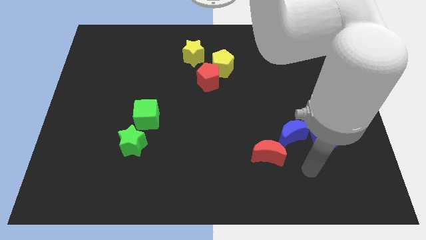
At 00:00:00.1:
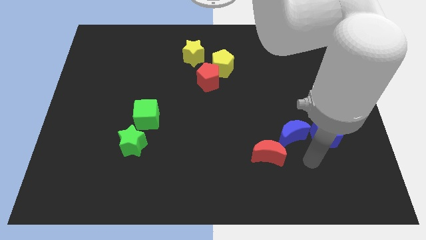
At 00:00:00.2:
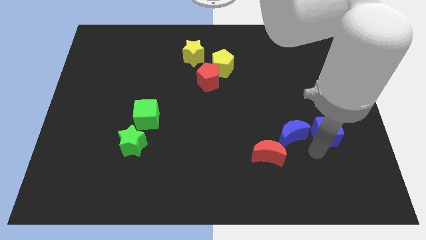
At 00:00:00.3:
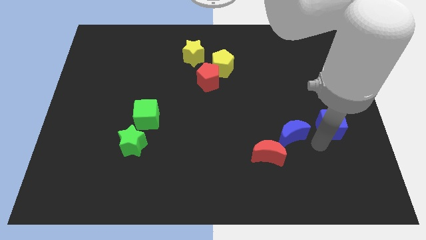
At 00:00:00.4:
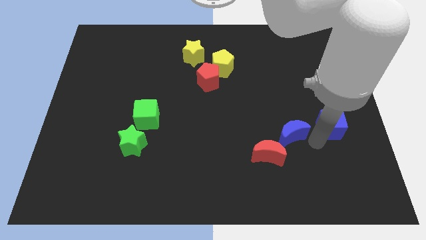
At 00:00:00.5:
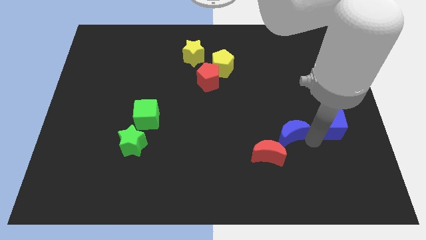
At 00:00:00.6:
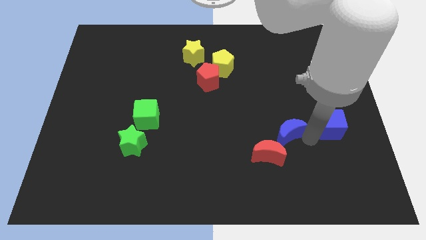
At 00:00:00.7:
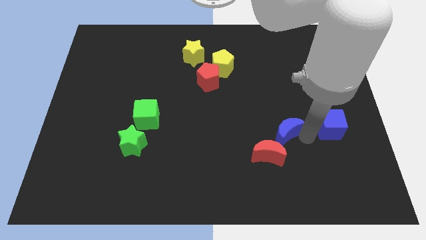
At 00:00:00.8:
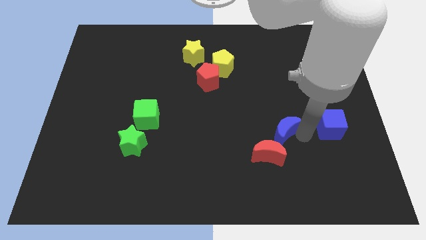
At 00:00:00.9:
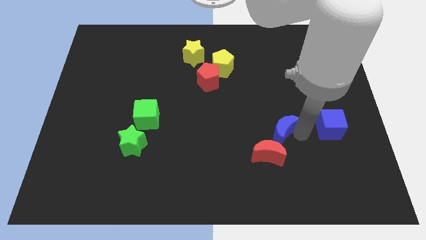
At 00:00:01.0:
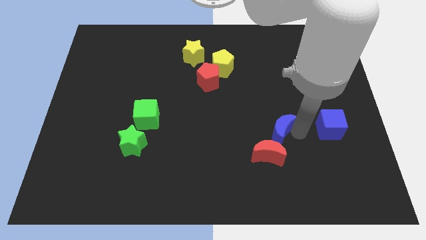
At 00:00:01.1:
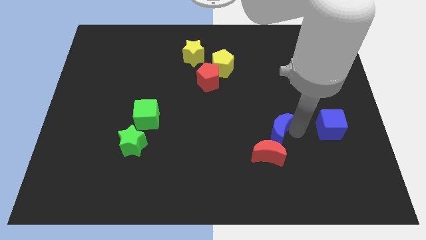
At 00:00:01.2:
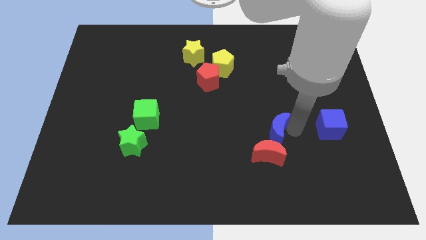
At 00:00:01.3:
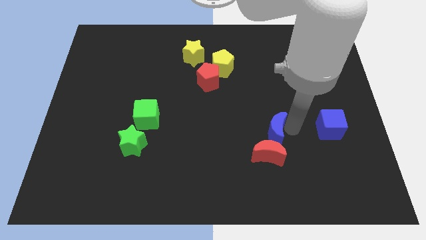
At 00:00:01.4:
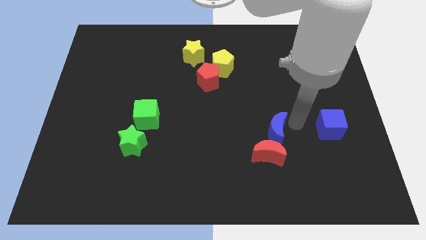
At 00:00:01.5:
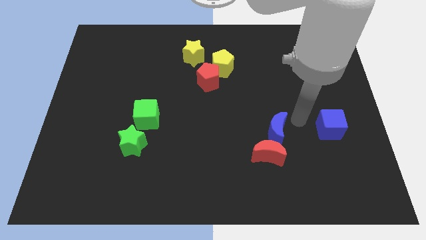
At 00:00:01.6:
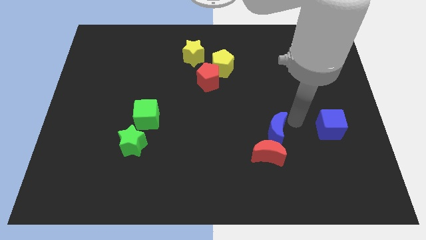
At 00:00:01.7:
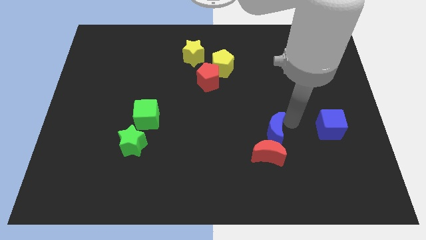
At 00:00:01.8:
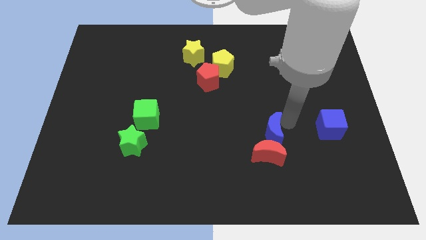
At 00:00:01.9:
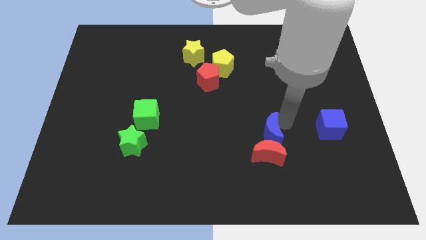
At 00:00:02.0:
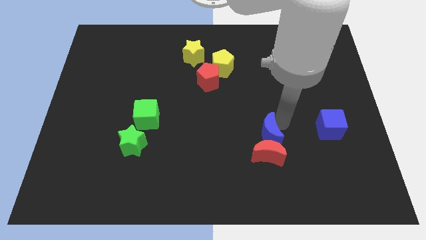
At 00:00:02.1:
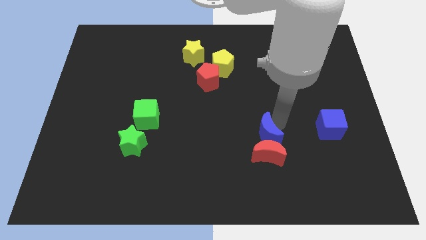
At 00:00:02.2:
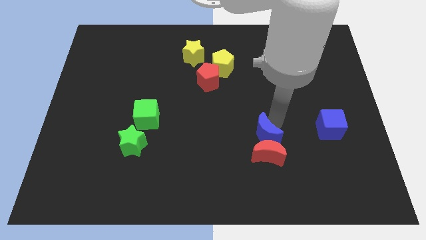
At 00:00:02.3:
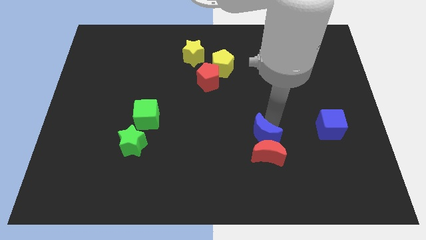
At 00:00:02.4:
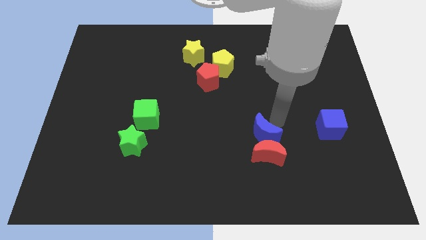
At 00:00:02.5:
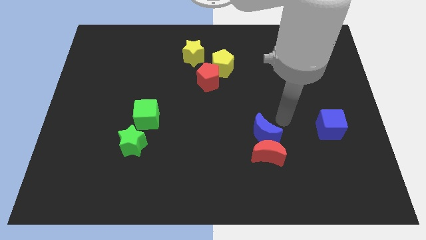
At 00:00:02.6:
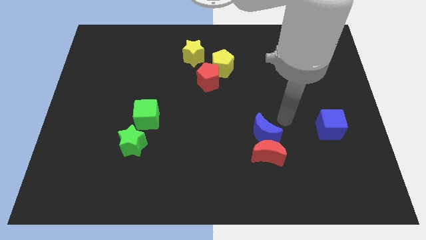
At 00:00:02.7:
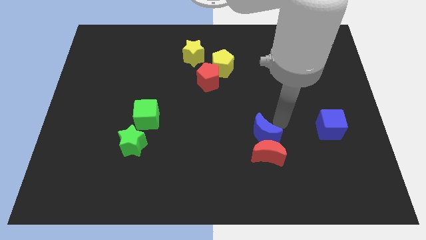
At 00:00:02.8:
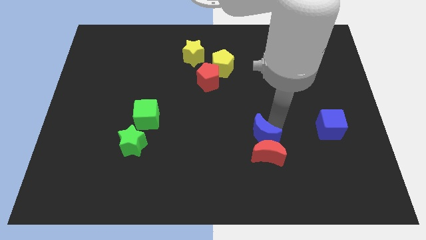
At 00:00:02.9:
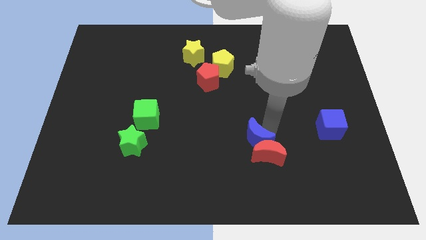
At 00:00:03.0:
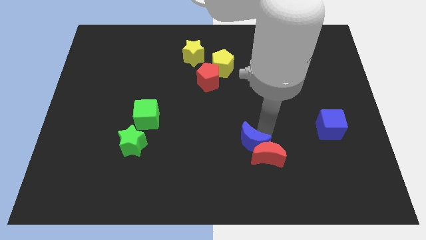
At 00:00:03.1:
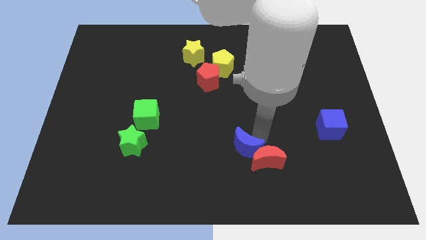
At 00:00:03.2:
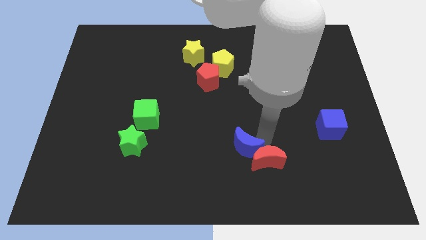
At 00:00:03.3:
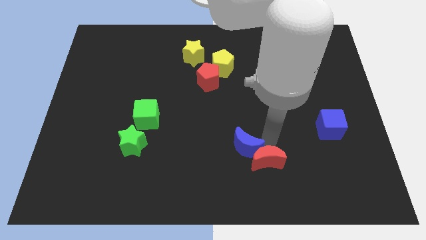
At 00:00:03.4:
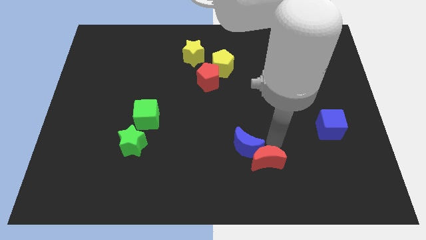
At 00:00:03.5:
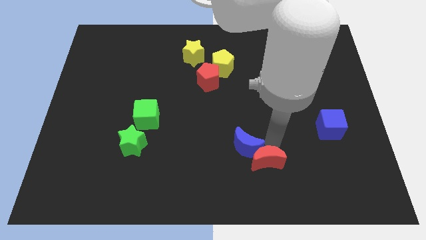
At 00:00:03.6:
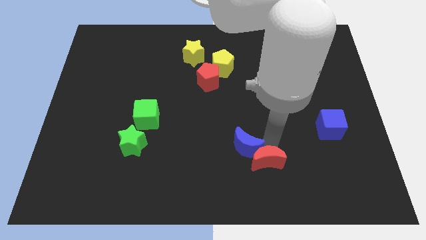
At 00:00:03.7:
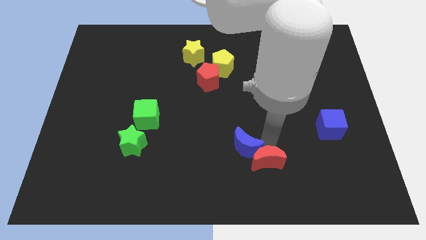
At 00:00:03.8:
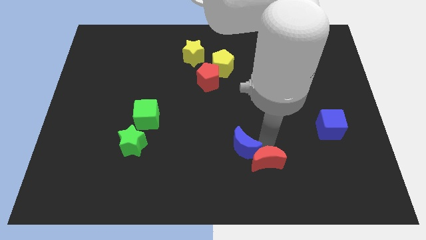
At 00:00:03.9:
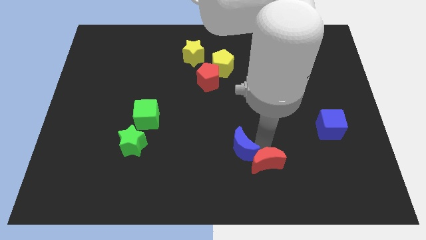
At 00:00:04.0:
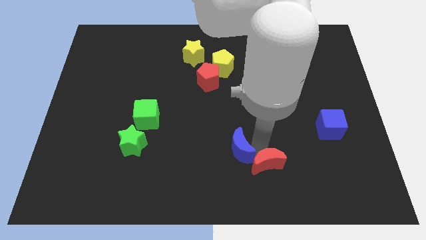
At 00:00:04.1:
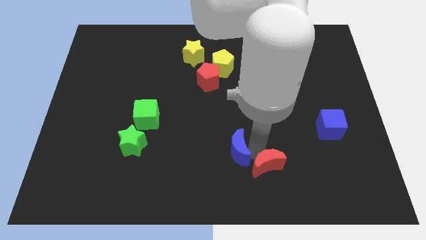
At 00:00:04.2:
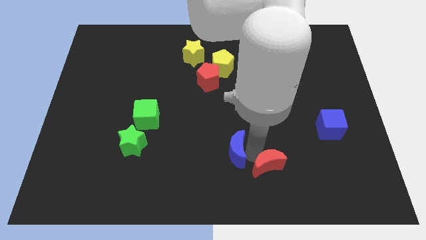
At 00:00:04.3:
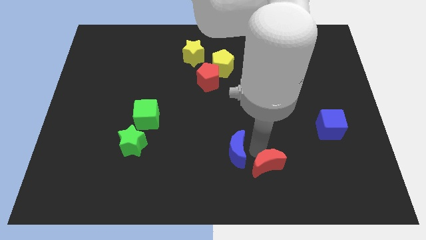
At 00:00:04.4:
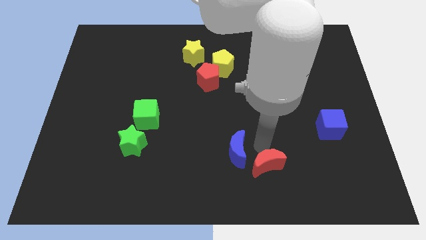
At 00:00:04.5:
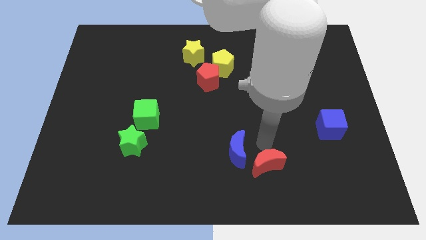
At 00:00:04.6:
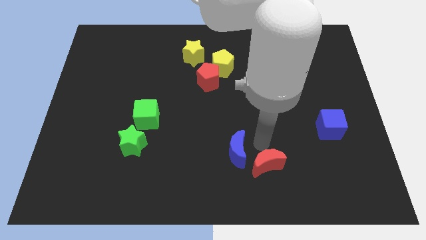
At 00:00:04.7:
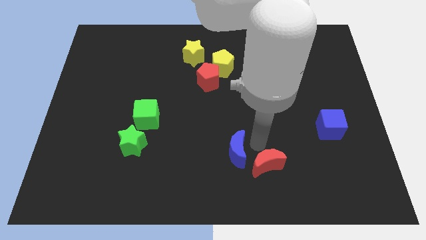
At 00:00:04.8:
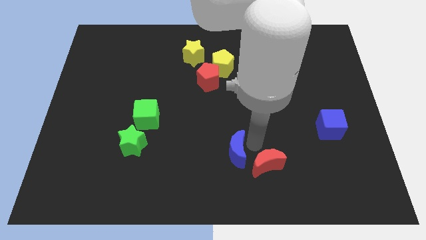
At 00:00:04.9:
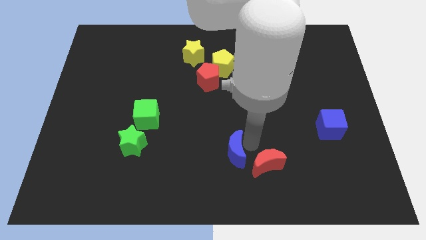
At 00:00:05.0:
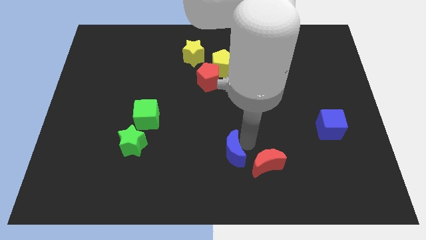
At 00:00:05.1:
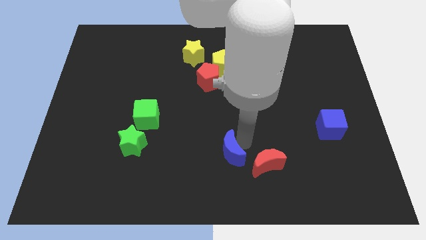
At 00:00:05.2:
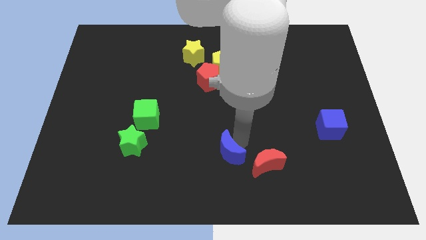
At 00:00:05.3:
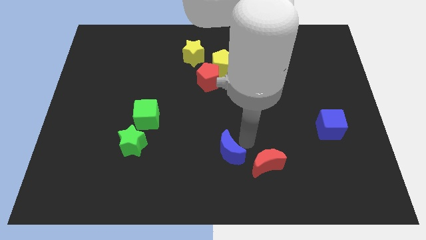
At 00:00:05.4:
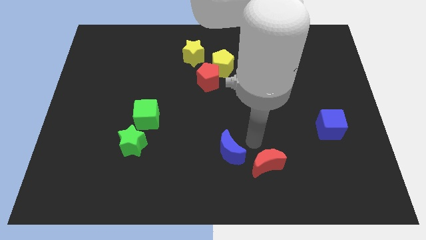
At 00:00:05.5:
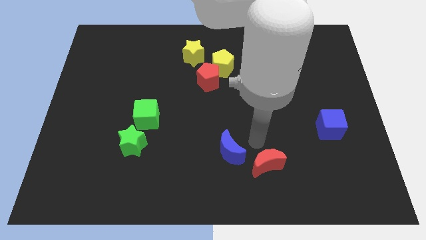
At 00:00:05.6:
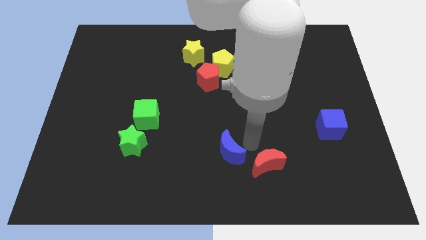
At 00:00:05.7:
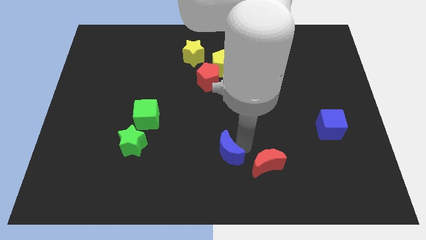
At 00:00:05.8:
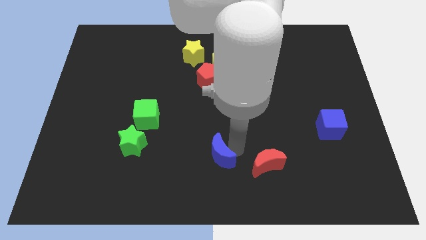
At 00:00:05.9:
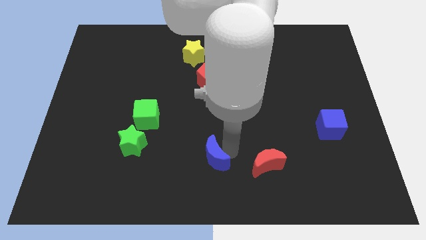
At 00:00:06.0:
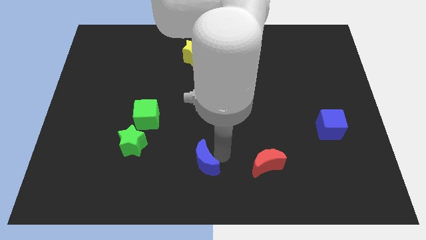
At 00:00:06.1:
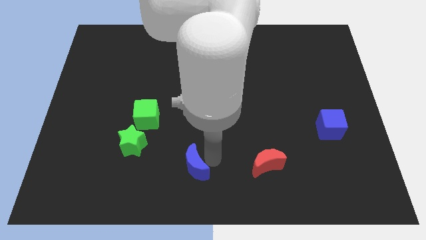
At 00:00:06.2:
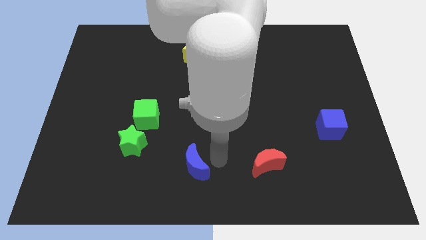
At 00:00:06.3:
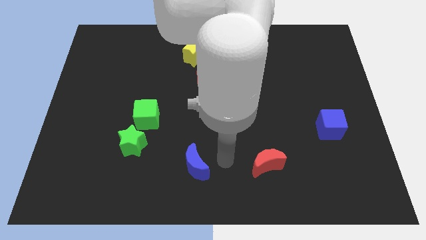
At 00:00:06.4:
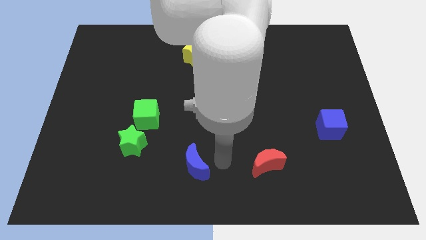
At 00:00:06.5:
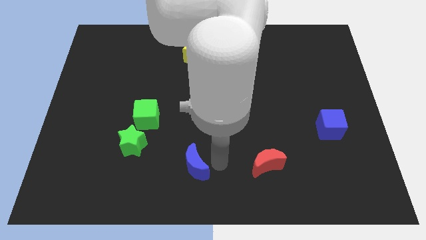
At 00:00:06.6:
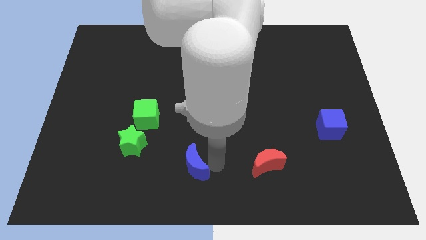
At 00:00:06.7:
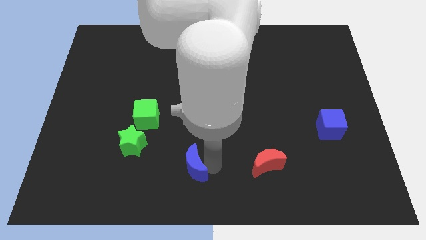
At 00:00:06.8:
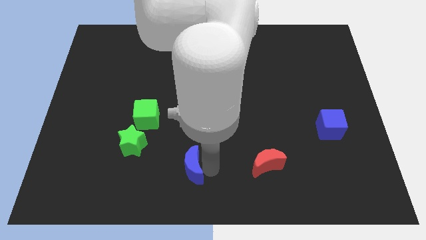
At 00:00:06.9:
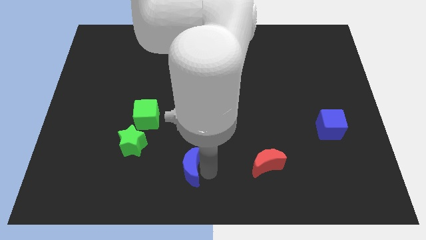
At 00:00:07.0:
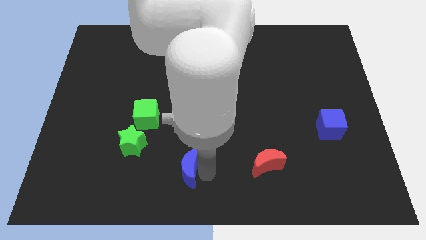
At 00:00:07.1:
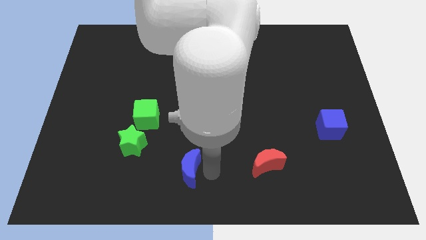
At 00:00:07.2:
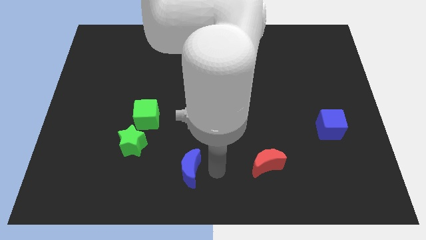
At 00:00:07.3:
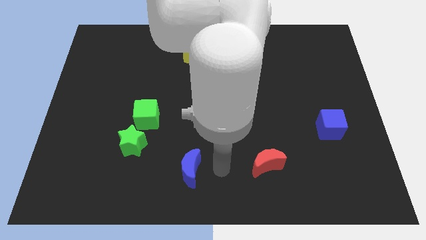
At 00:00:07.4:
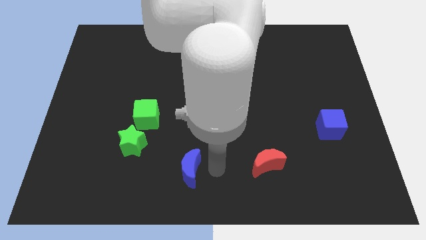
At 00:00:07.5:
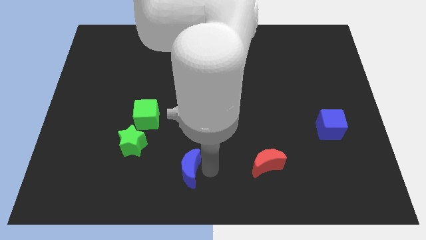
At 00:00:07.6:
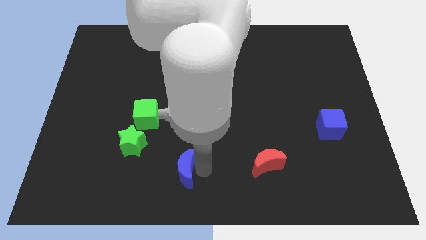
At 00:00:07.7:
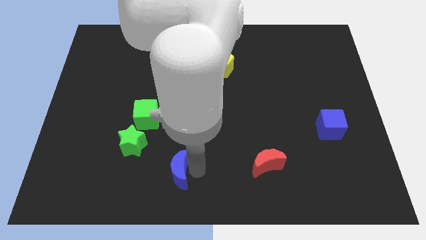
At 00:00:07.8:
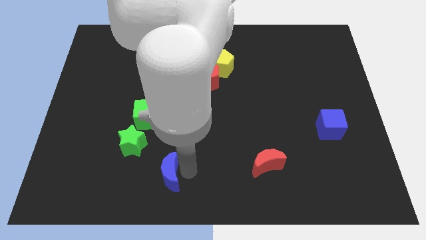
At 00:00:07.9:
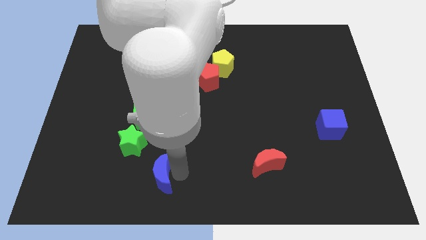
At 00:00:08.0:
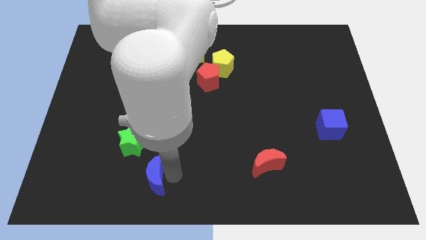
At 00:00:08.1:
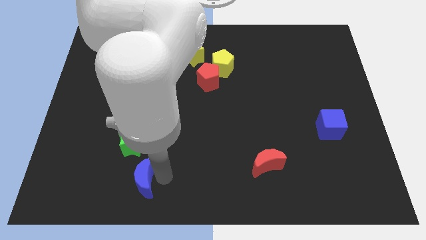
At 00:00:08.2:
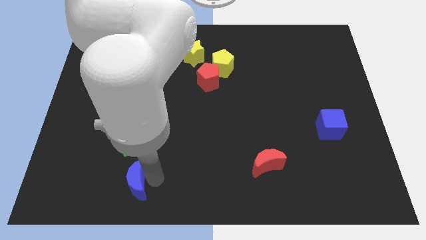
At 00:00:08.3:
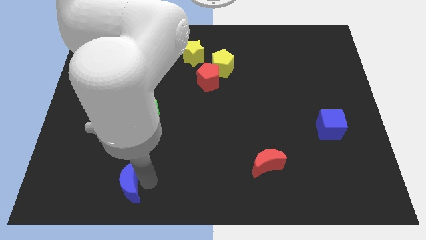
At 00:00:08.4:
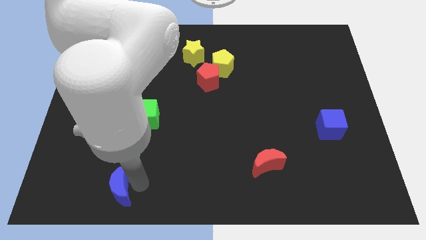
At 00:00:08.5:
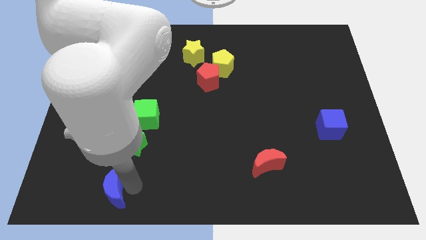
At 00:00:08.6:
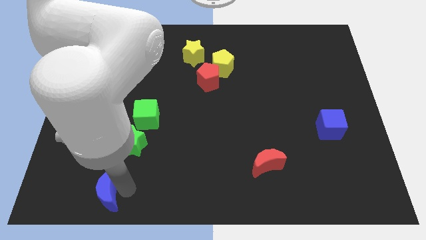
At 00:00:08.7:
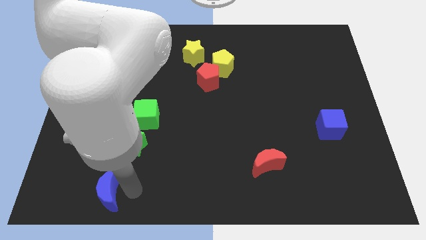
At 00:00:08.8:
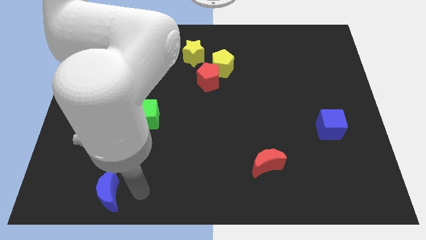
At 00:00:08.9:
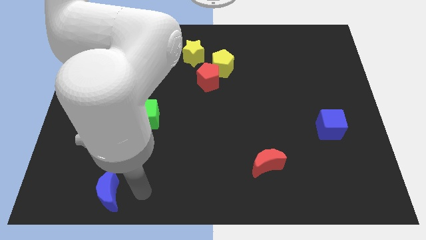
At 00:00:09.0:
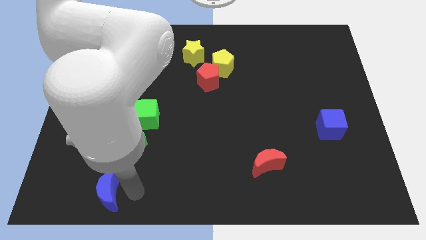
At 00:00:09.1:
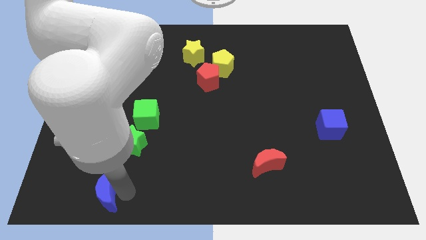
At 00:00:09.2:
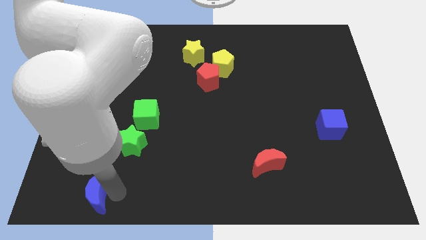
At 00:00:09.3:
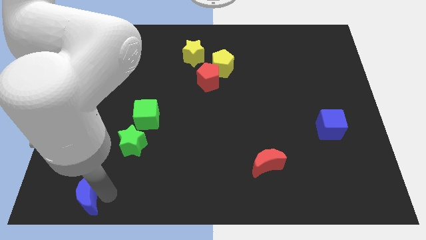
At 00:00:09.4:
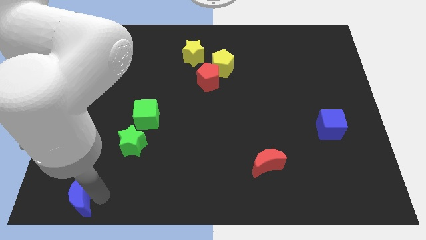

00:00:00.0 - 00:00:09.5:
put the blue moon to the bottom left
